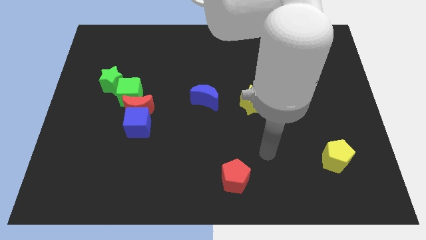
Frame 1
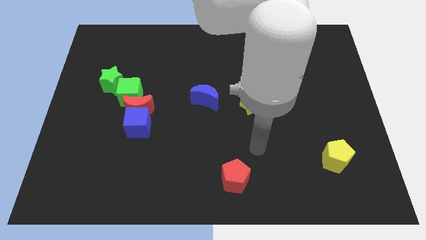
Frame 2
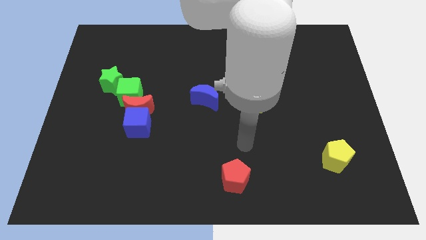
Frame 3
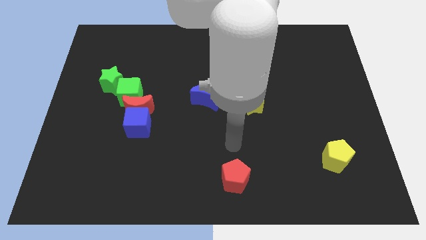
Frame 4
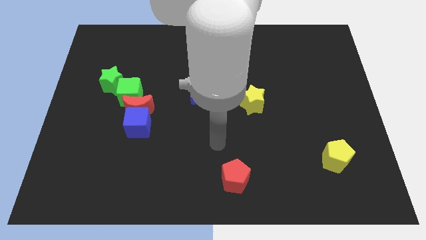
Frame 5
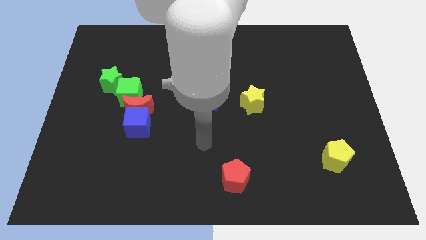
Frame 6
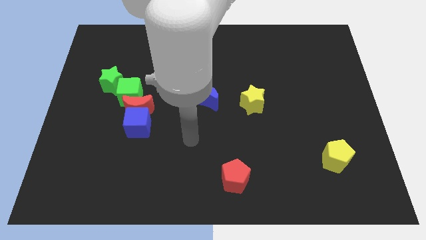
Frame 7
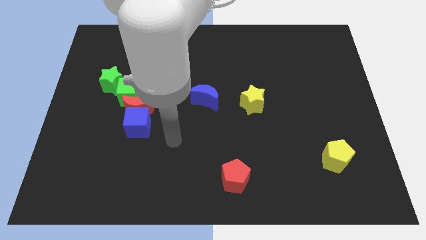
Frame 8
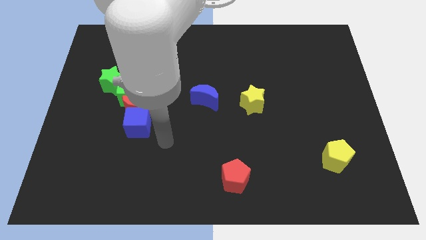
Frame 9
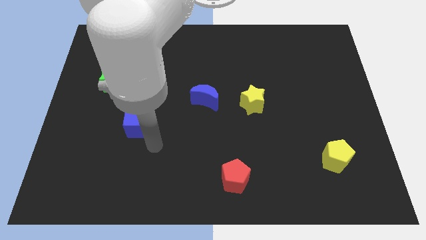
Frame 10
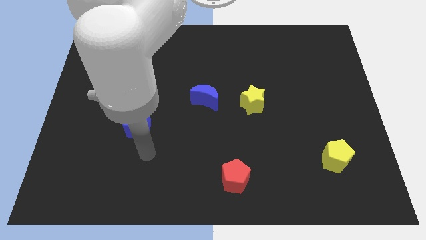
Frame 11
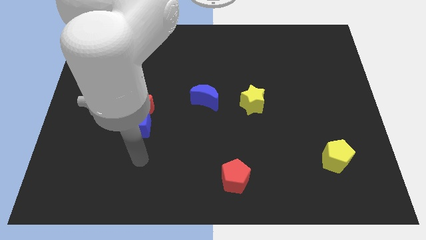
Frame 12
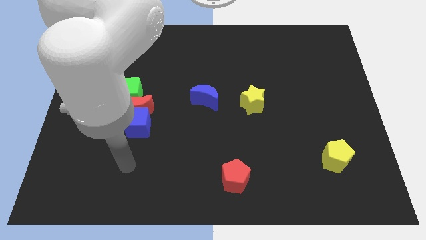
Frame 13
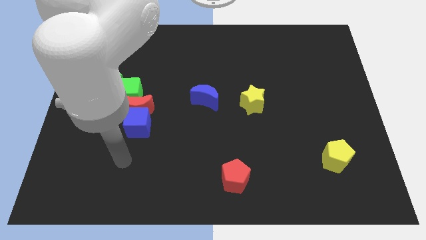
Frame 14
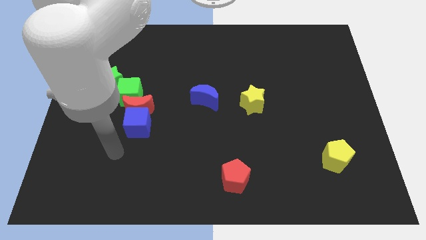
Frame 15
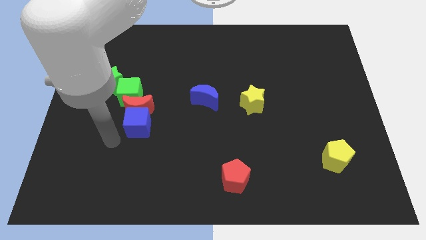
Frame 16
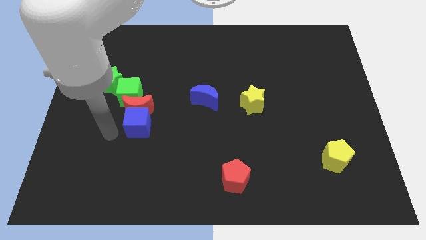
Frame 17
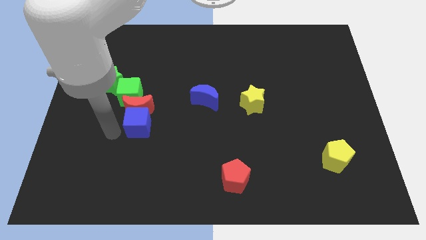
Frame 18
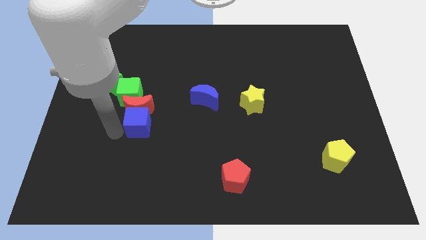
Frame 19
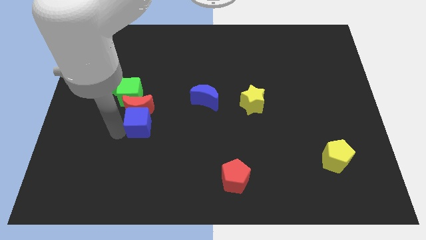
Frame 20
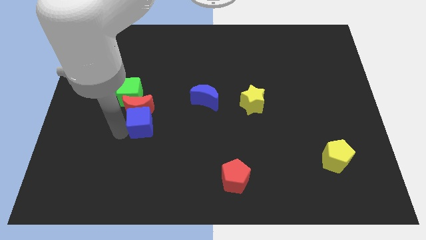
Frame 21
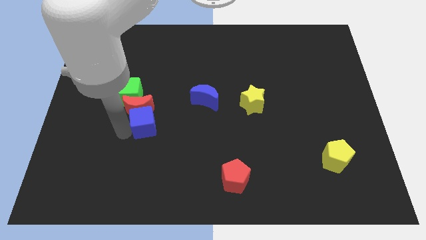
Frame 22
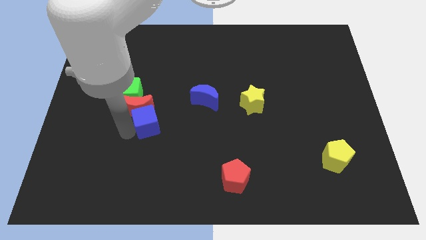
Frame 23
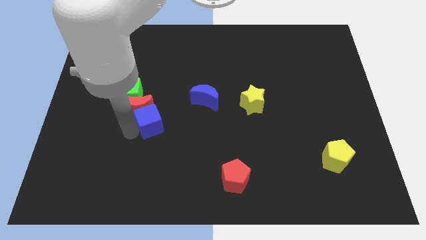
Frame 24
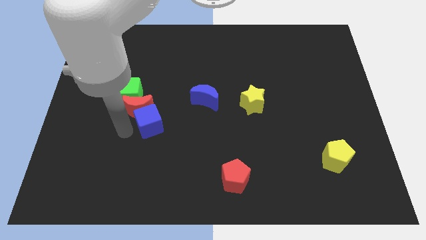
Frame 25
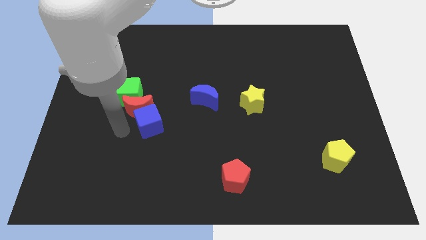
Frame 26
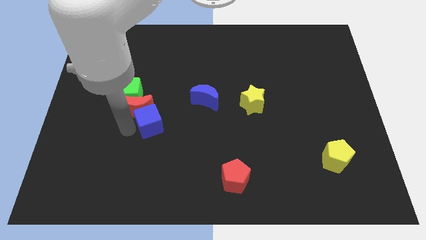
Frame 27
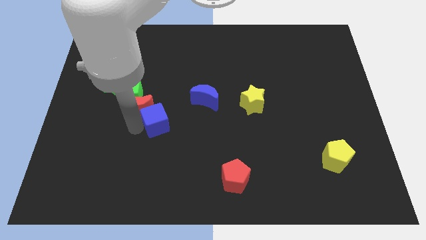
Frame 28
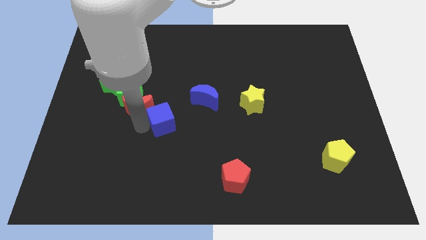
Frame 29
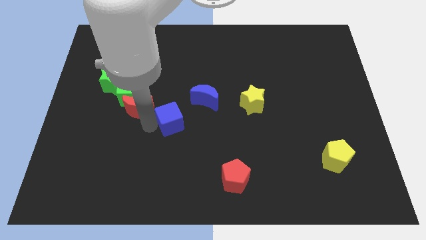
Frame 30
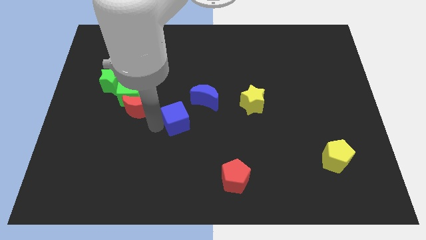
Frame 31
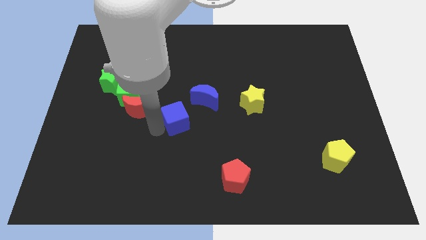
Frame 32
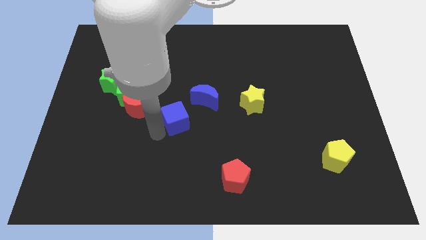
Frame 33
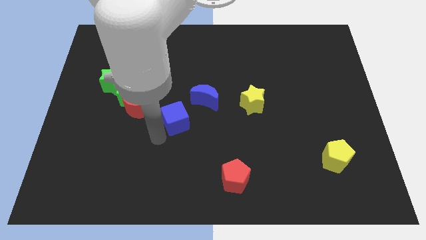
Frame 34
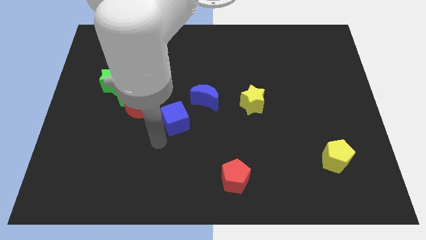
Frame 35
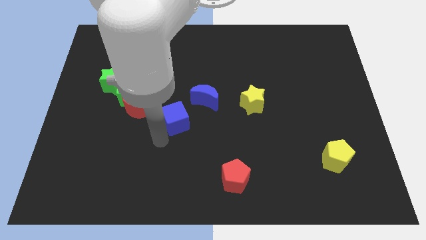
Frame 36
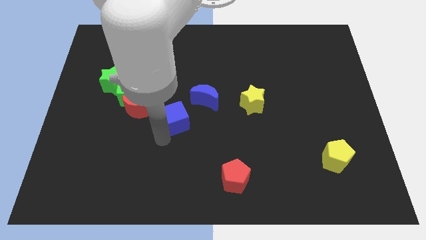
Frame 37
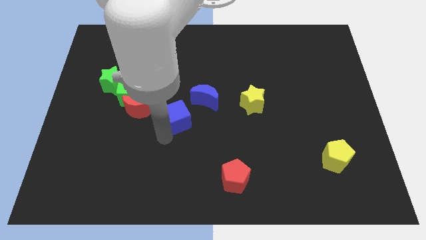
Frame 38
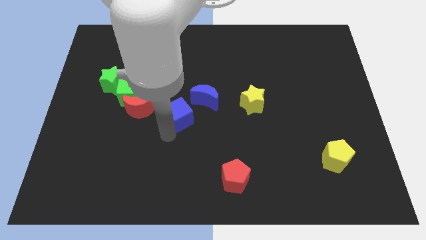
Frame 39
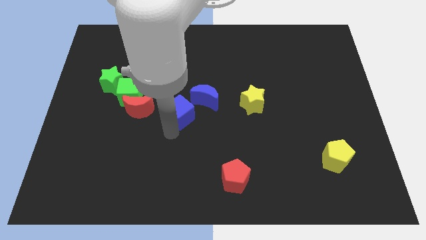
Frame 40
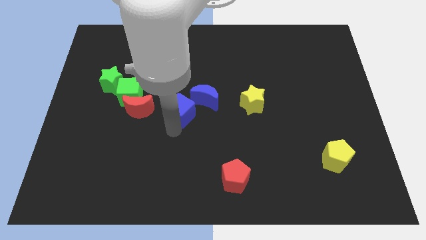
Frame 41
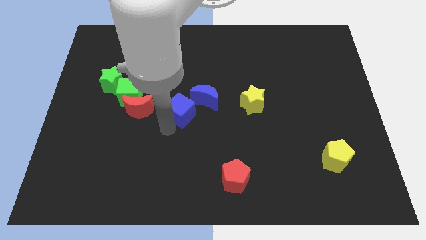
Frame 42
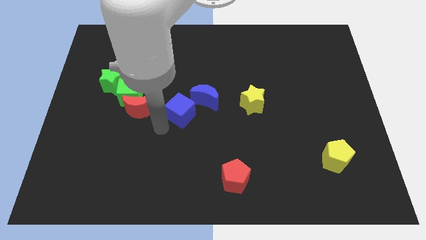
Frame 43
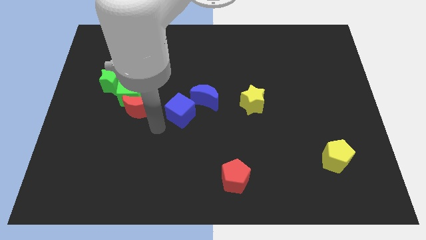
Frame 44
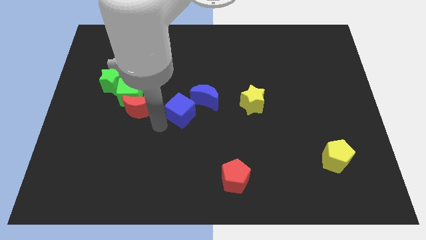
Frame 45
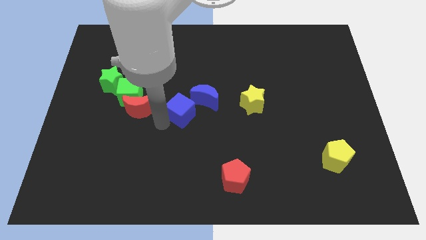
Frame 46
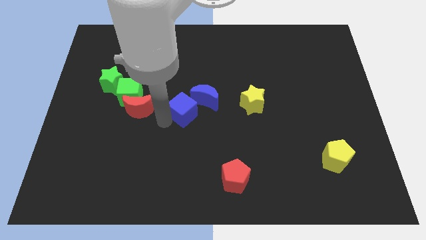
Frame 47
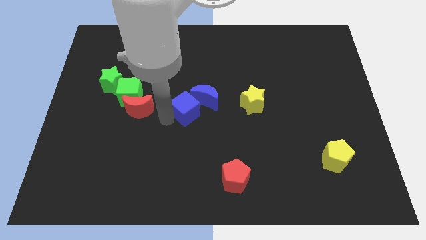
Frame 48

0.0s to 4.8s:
put the blue cube close to the blue moon

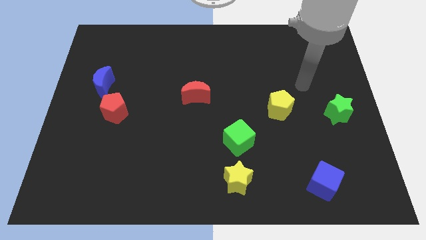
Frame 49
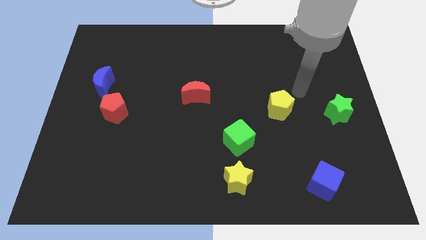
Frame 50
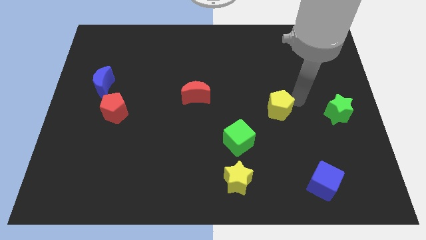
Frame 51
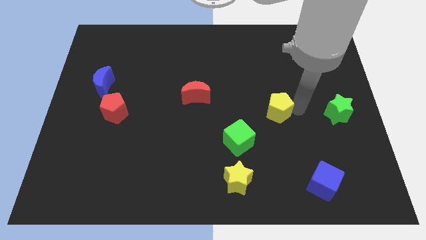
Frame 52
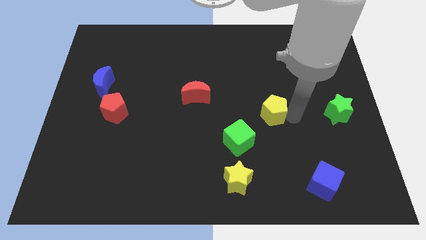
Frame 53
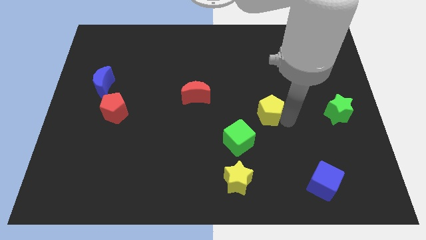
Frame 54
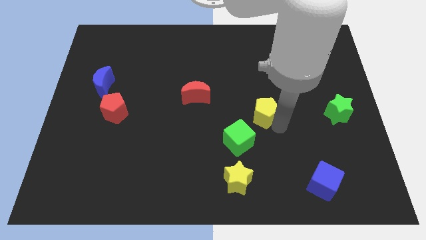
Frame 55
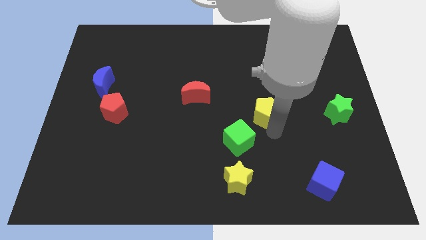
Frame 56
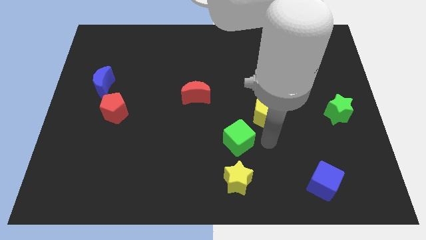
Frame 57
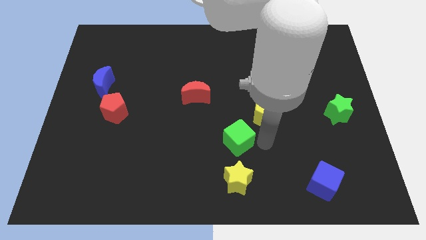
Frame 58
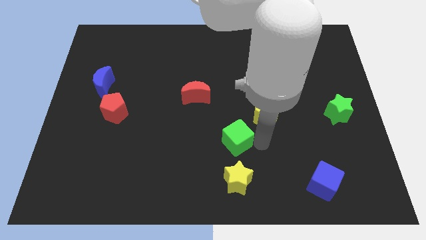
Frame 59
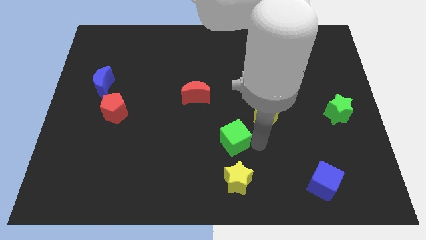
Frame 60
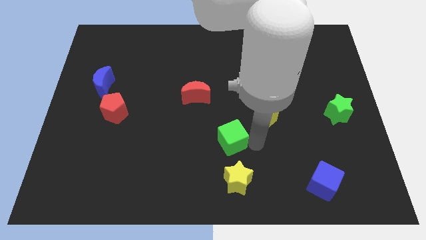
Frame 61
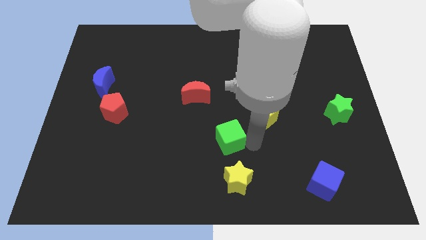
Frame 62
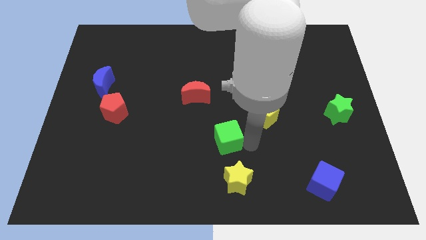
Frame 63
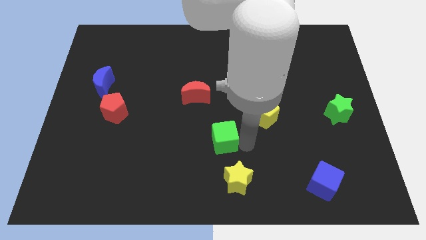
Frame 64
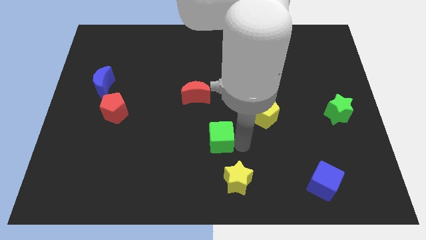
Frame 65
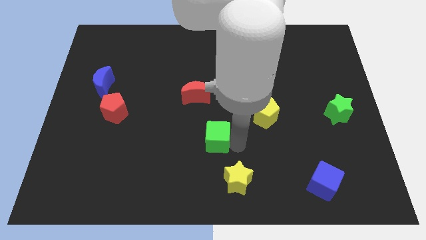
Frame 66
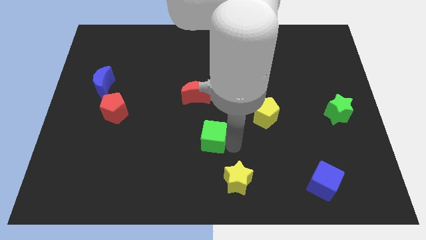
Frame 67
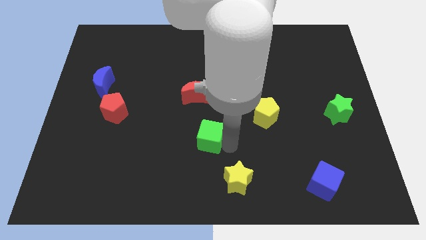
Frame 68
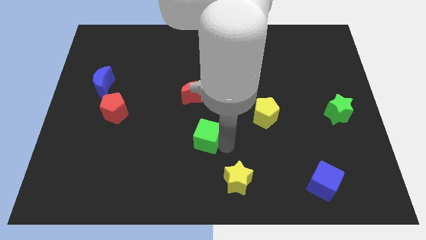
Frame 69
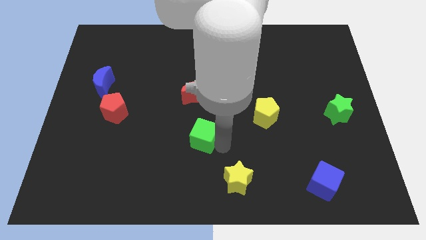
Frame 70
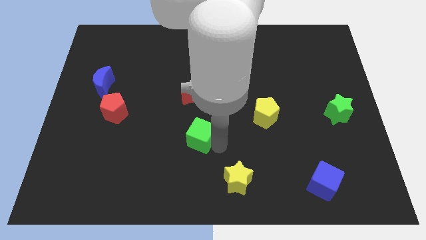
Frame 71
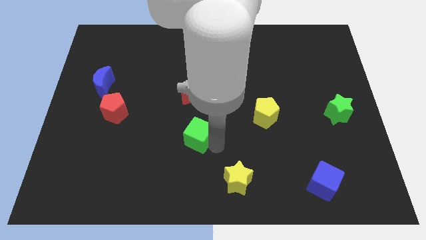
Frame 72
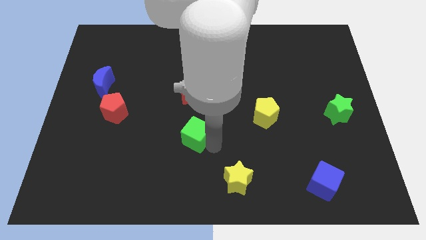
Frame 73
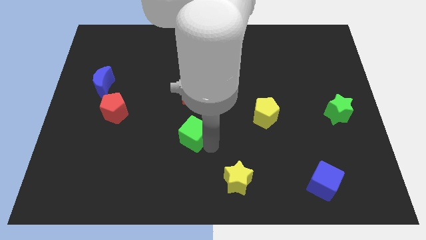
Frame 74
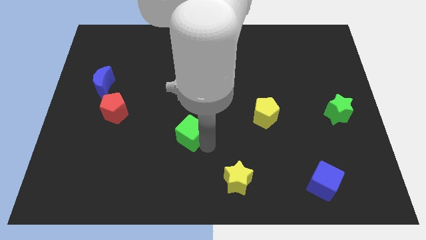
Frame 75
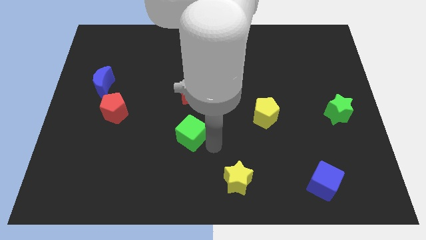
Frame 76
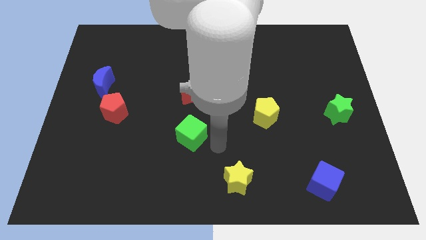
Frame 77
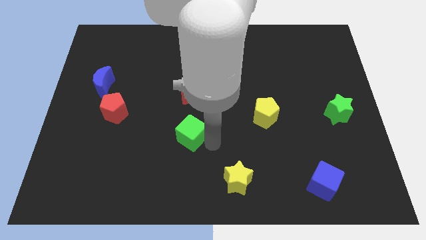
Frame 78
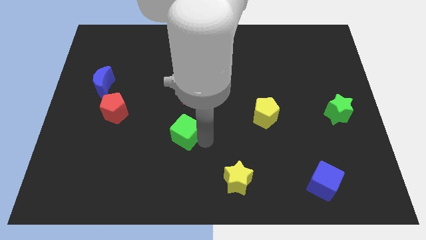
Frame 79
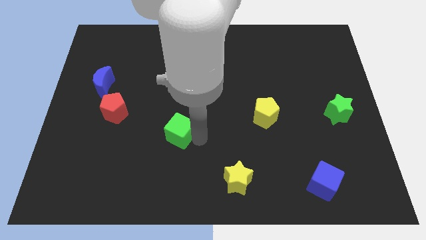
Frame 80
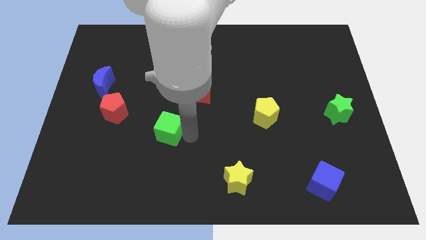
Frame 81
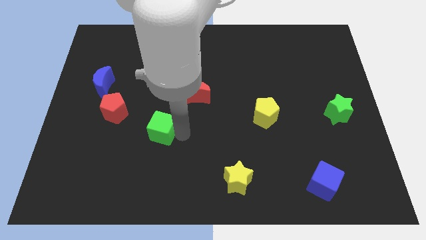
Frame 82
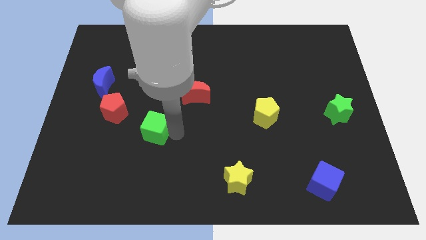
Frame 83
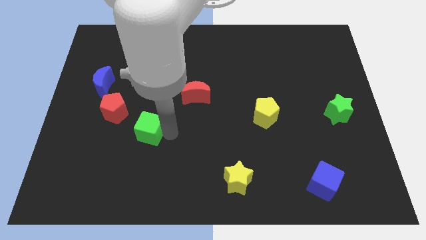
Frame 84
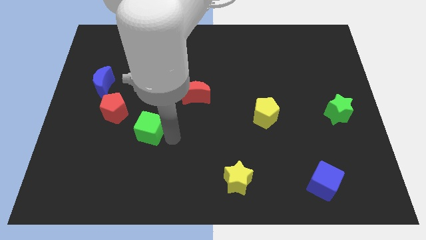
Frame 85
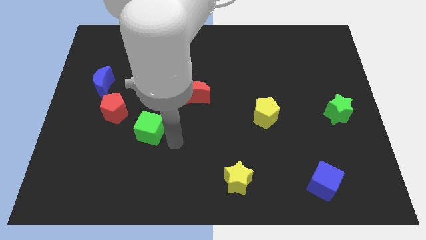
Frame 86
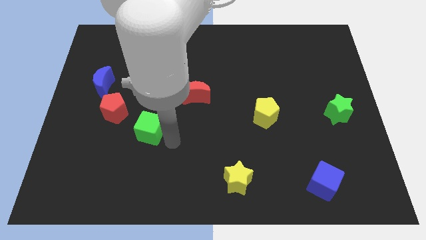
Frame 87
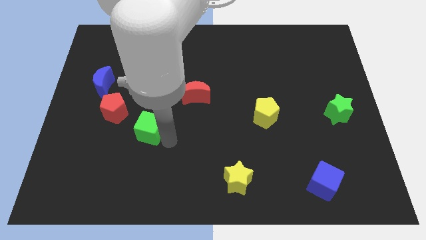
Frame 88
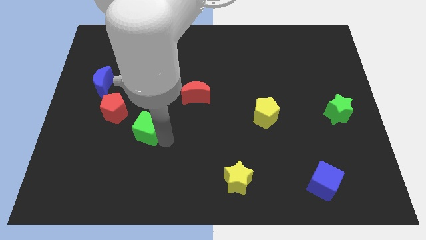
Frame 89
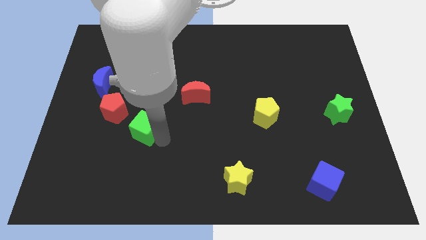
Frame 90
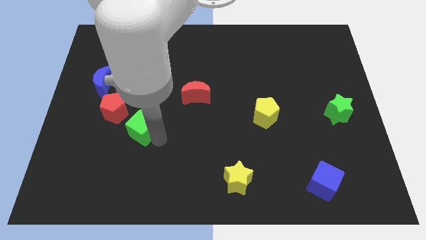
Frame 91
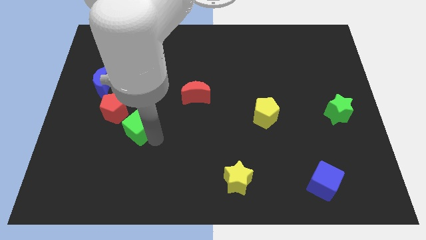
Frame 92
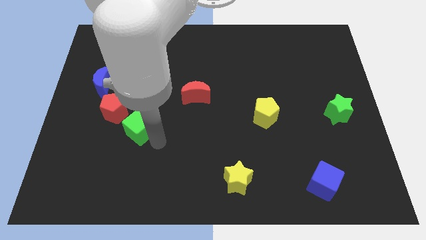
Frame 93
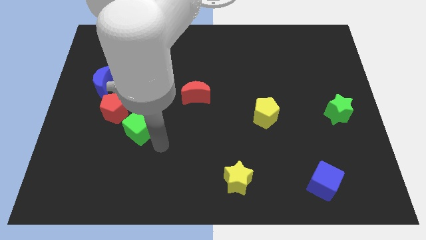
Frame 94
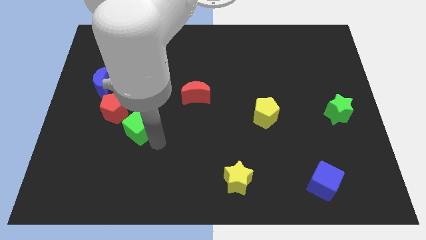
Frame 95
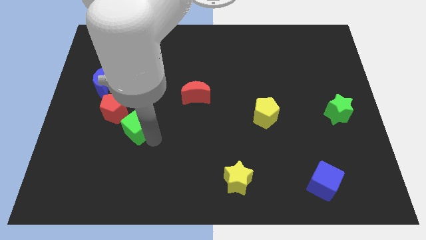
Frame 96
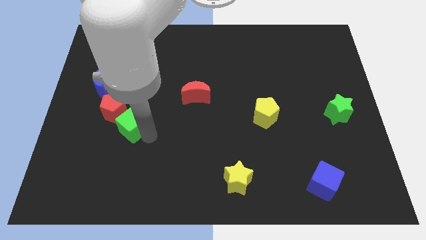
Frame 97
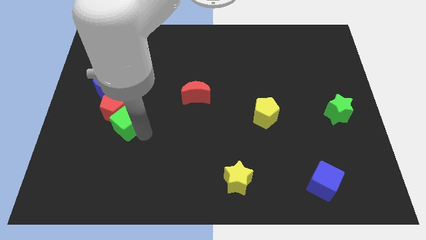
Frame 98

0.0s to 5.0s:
put the green cube close to the red pentagon
